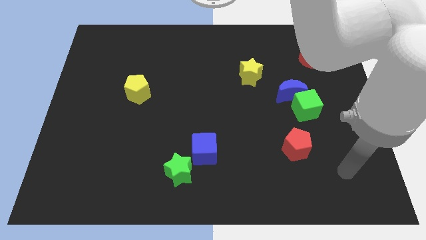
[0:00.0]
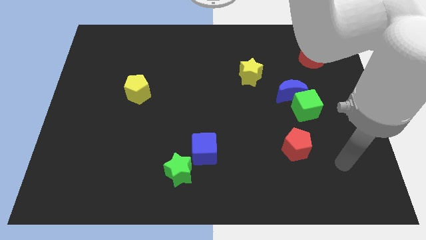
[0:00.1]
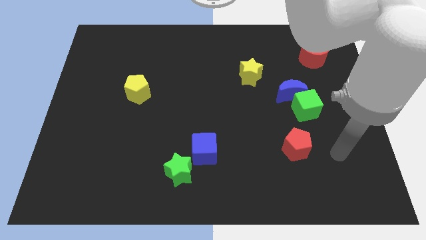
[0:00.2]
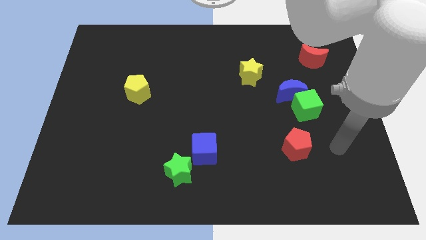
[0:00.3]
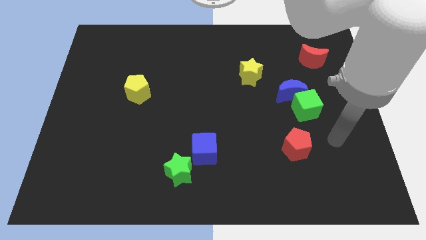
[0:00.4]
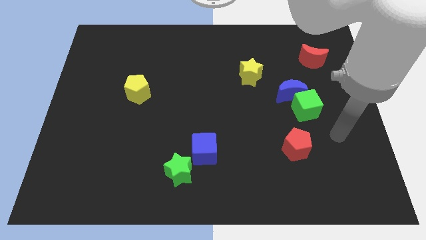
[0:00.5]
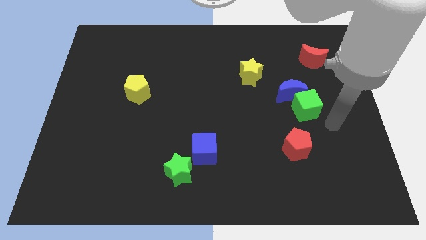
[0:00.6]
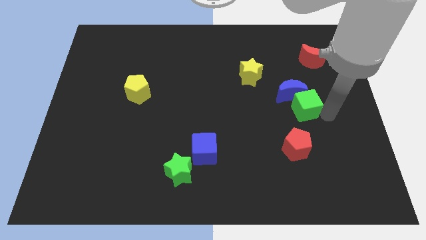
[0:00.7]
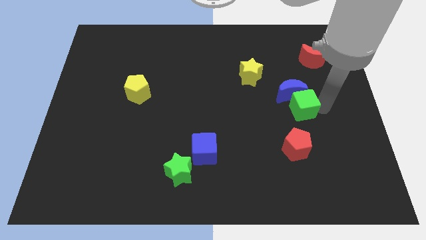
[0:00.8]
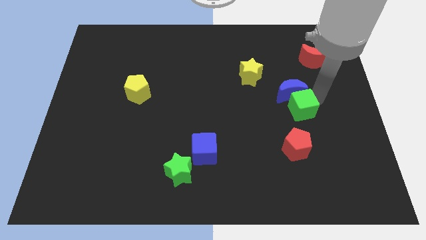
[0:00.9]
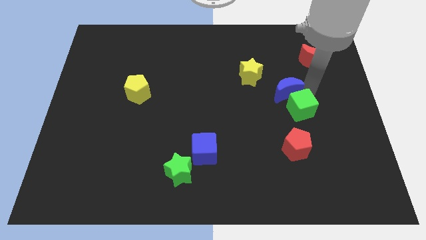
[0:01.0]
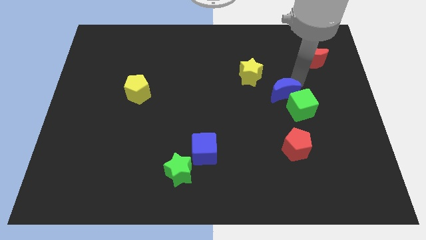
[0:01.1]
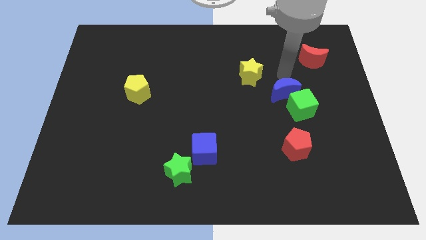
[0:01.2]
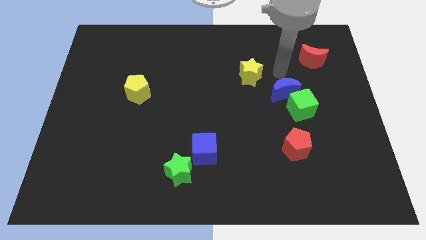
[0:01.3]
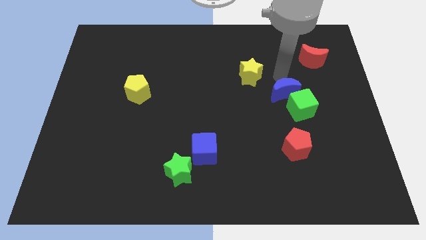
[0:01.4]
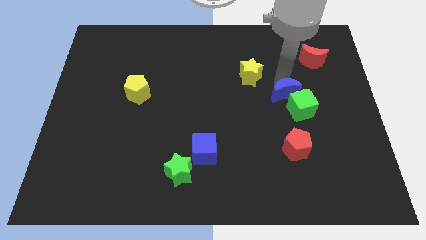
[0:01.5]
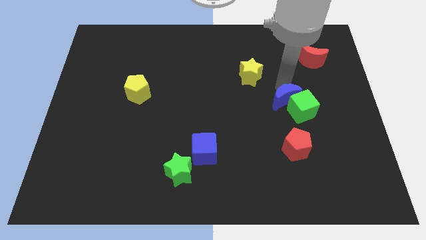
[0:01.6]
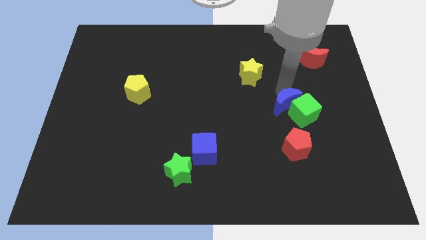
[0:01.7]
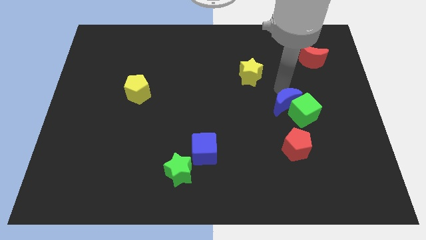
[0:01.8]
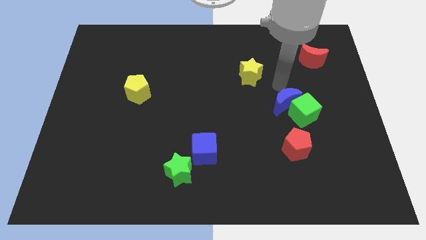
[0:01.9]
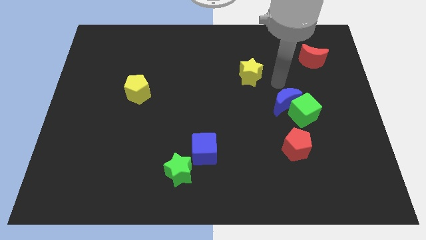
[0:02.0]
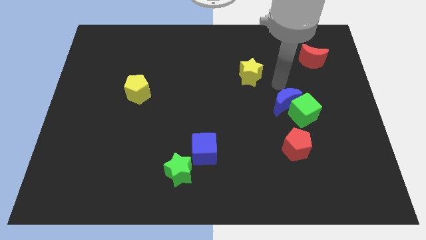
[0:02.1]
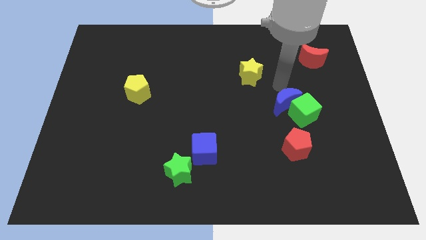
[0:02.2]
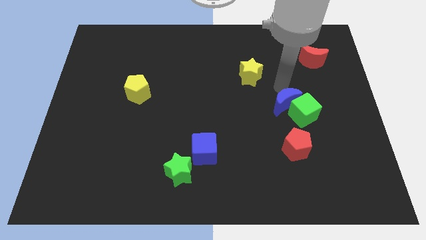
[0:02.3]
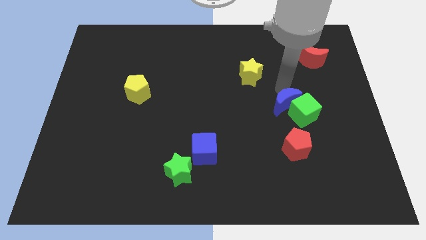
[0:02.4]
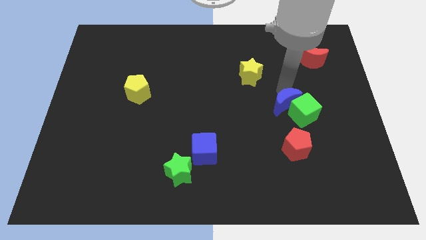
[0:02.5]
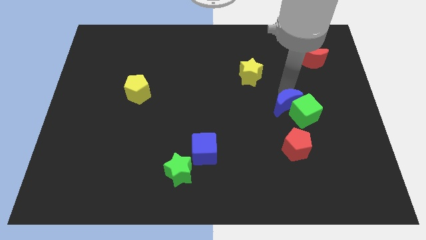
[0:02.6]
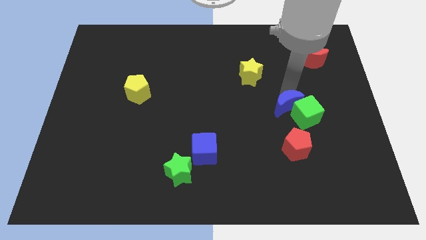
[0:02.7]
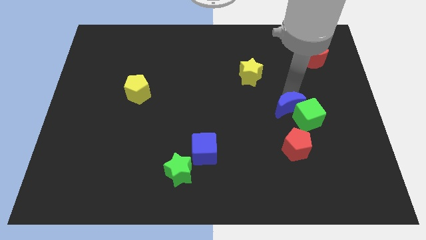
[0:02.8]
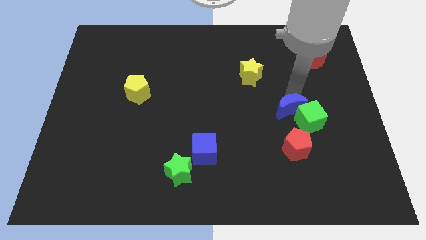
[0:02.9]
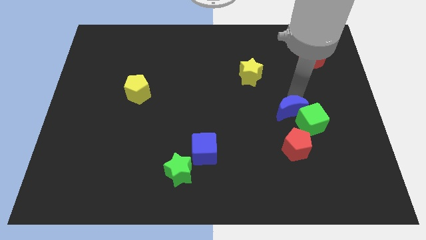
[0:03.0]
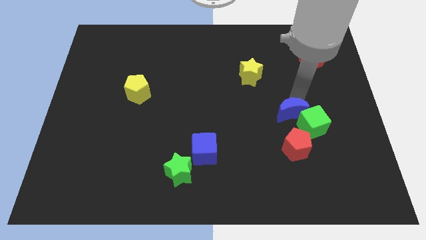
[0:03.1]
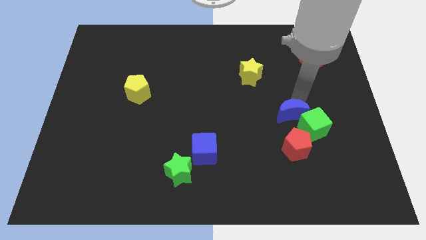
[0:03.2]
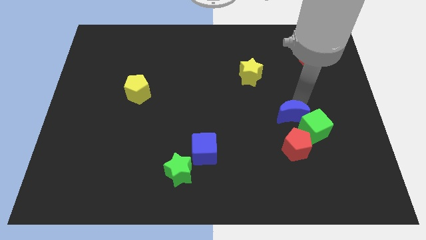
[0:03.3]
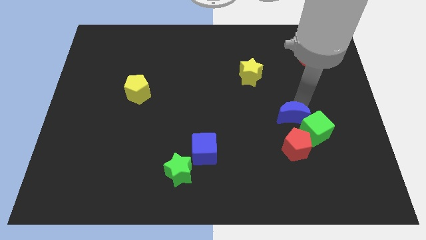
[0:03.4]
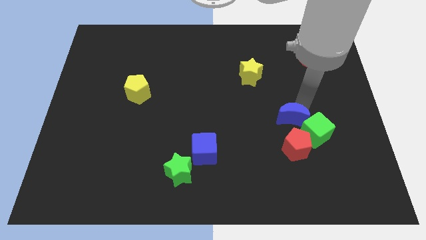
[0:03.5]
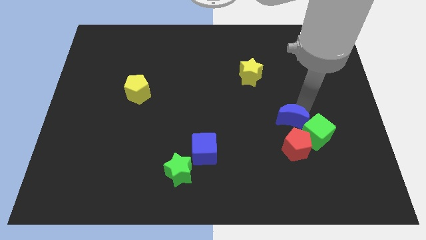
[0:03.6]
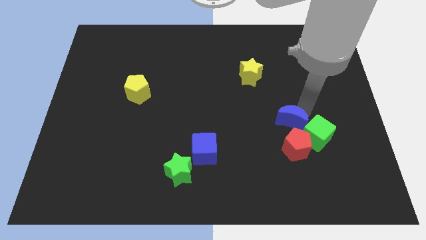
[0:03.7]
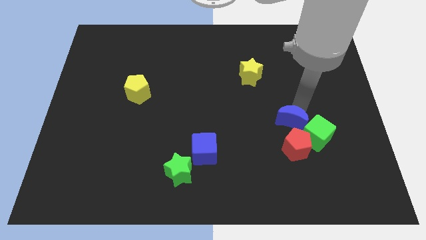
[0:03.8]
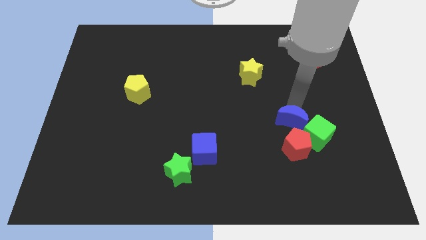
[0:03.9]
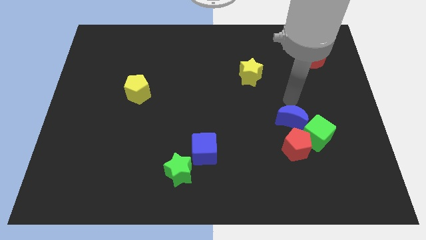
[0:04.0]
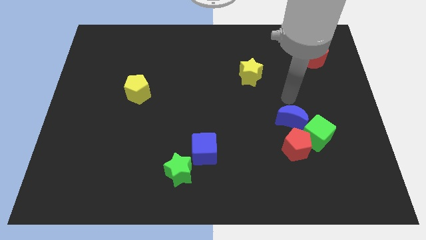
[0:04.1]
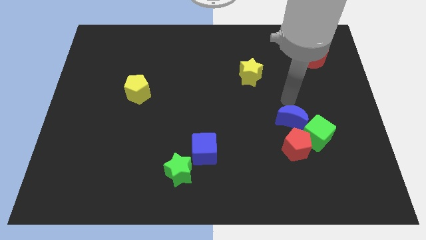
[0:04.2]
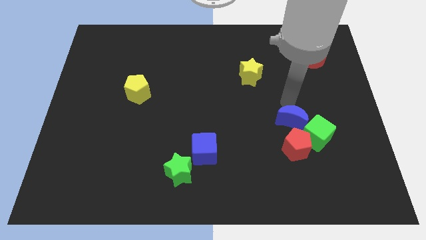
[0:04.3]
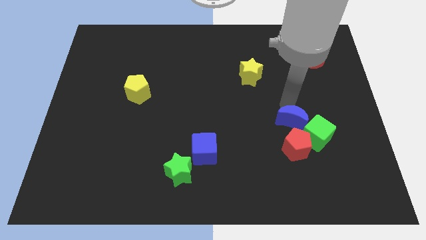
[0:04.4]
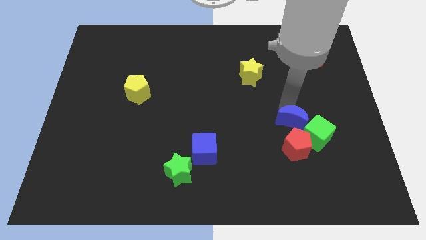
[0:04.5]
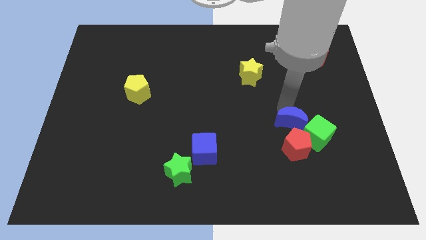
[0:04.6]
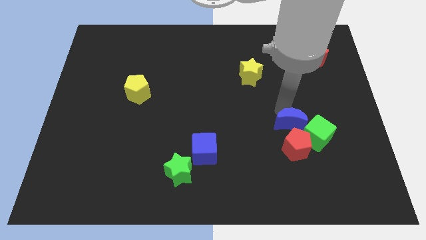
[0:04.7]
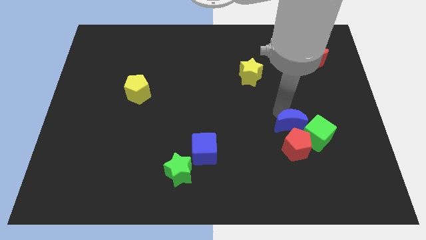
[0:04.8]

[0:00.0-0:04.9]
push the blue moon towards the red pentagon

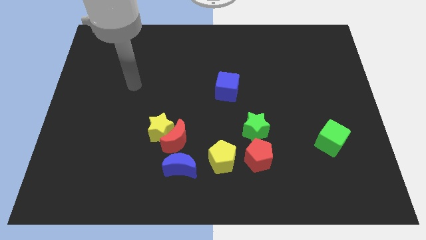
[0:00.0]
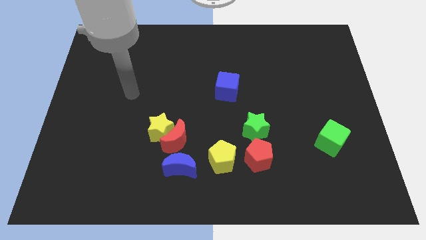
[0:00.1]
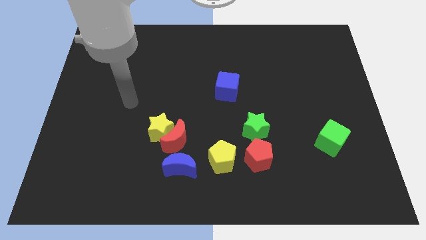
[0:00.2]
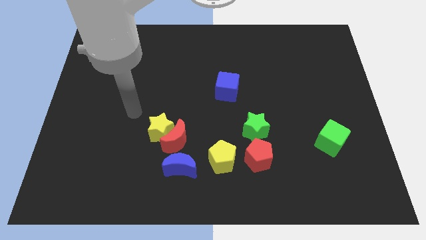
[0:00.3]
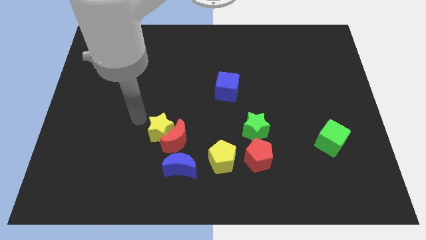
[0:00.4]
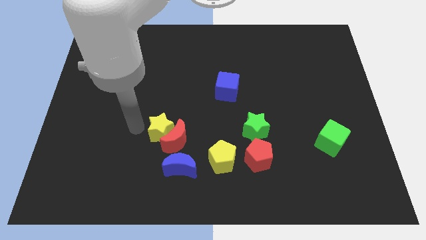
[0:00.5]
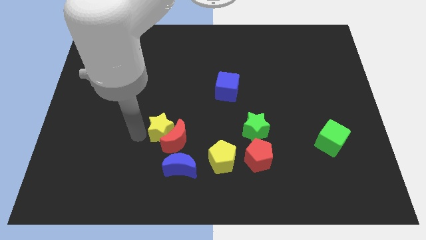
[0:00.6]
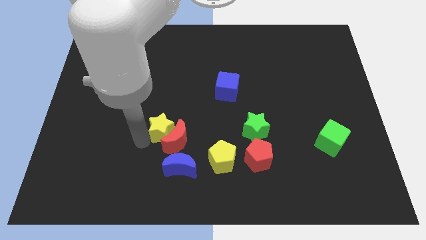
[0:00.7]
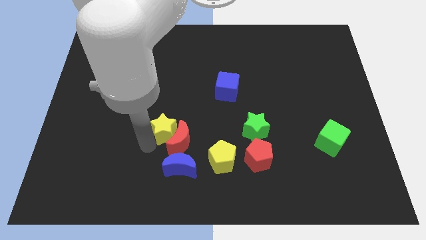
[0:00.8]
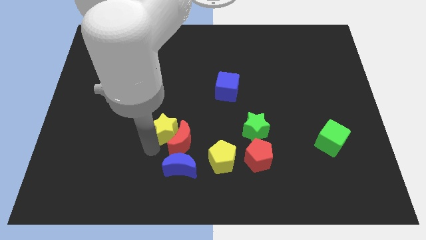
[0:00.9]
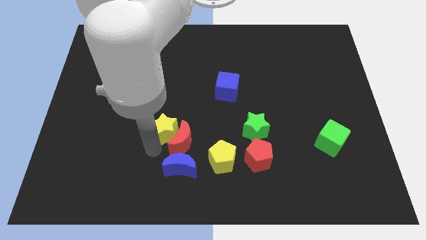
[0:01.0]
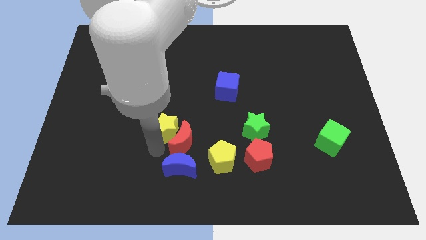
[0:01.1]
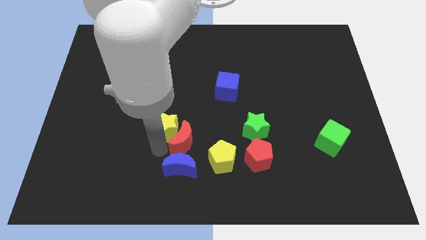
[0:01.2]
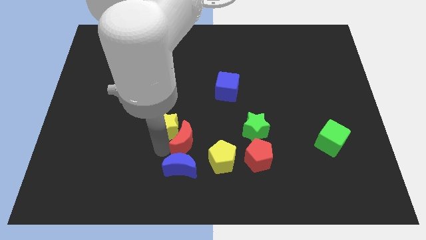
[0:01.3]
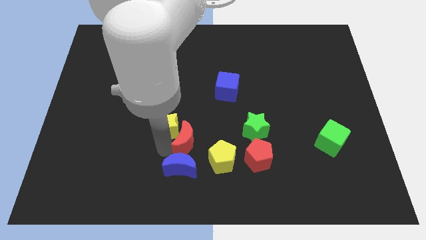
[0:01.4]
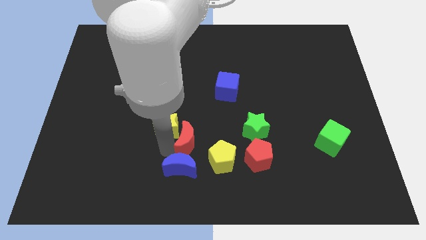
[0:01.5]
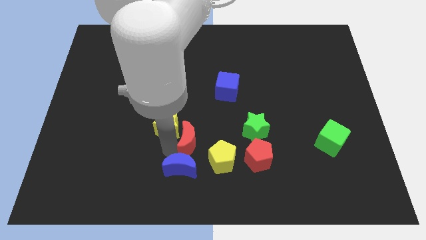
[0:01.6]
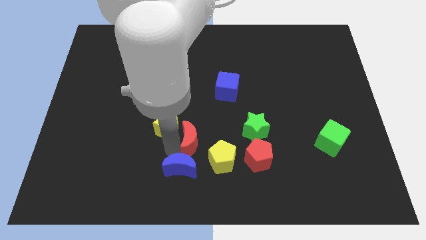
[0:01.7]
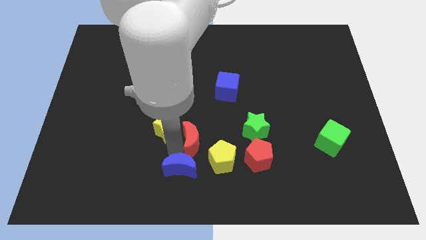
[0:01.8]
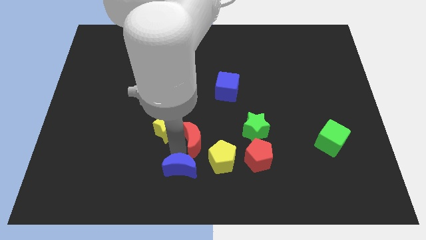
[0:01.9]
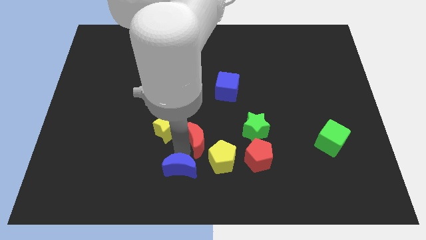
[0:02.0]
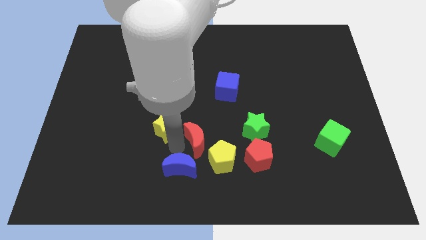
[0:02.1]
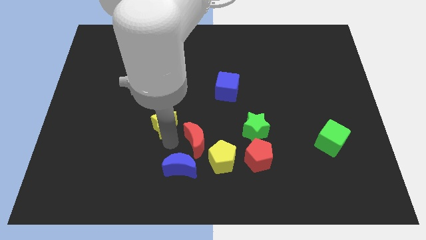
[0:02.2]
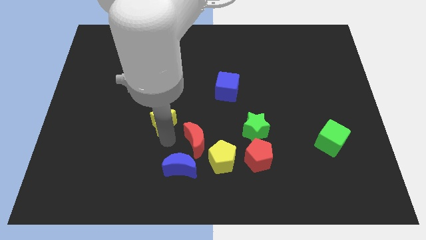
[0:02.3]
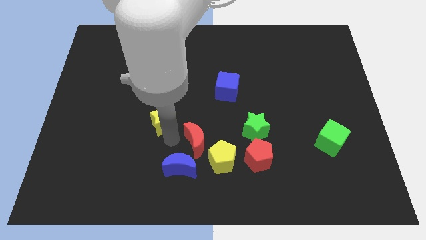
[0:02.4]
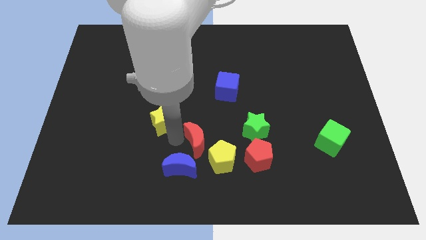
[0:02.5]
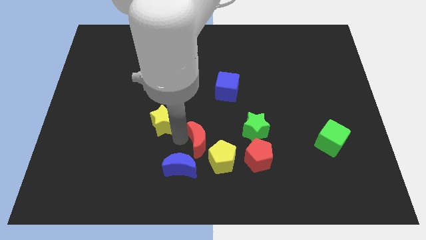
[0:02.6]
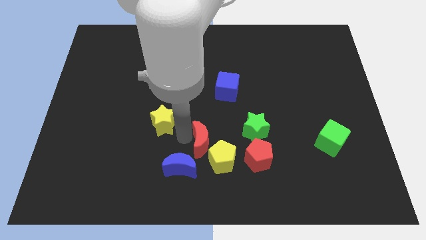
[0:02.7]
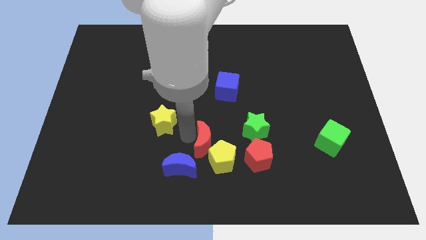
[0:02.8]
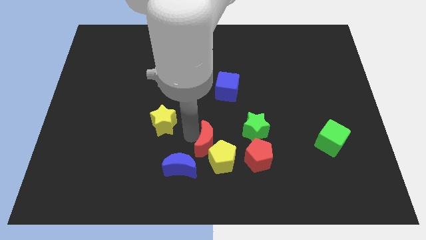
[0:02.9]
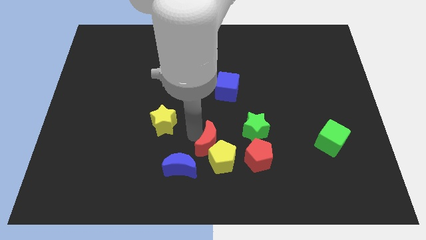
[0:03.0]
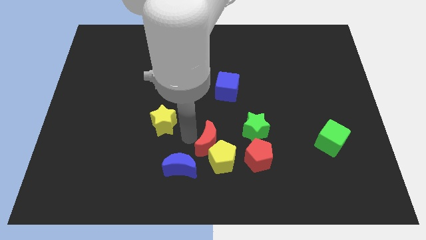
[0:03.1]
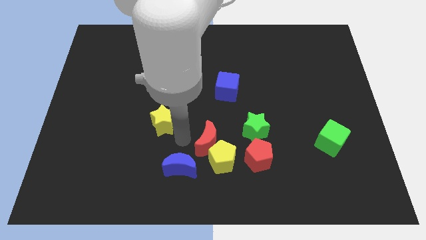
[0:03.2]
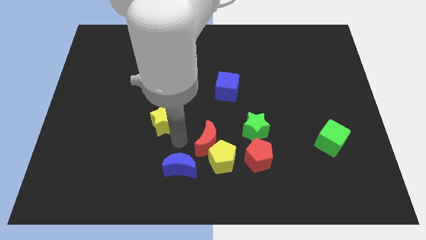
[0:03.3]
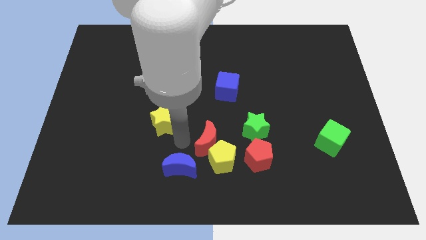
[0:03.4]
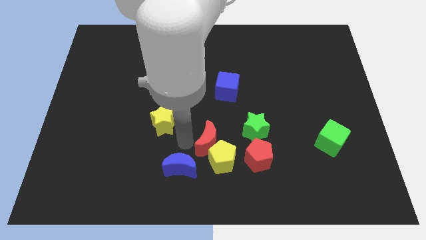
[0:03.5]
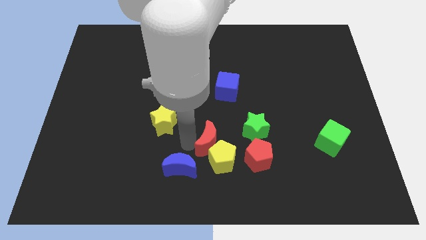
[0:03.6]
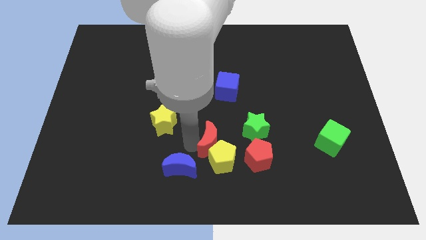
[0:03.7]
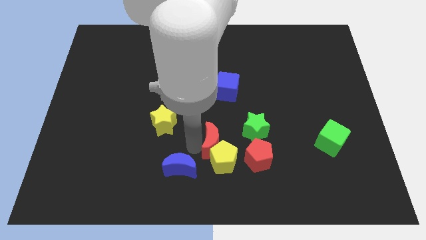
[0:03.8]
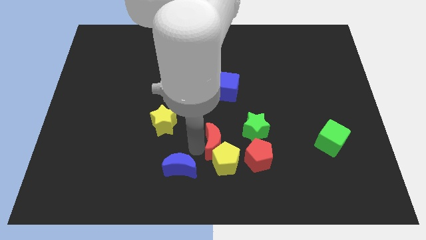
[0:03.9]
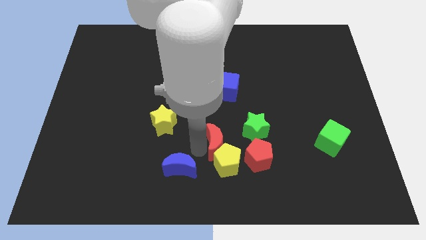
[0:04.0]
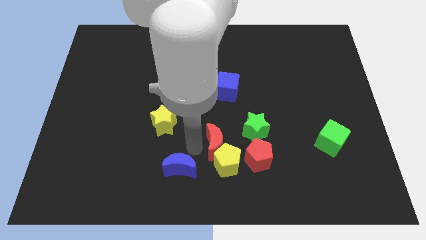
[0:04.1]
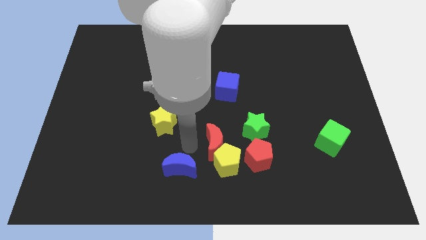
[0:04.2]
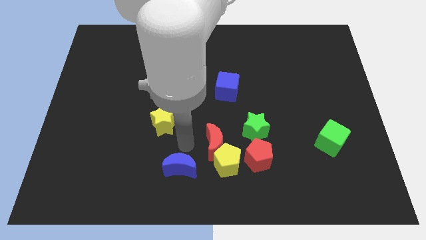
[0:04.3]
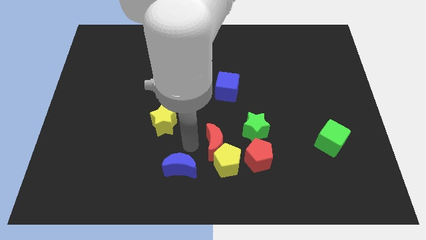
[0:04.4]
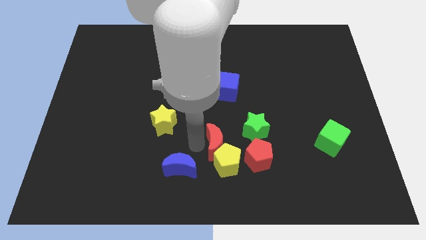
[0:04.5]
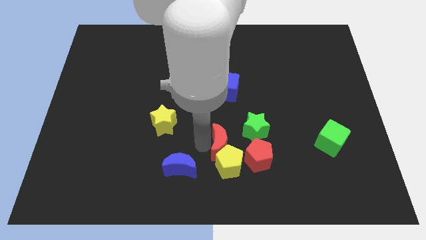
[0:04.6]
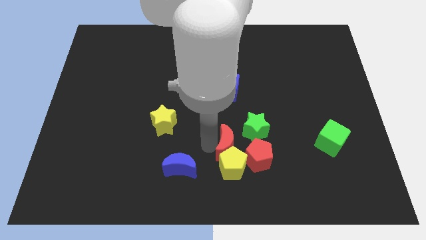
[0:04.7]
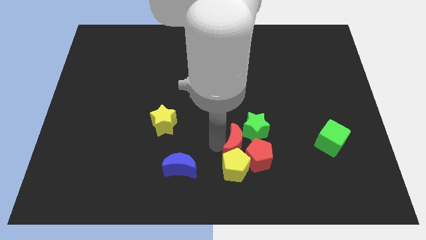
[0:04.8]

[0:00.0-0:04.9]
slide the red moon next to the red pentagon
